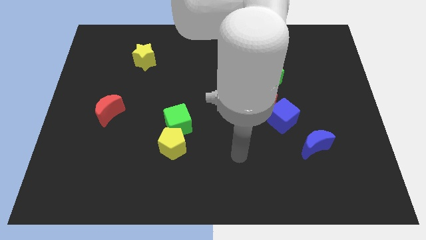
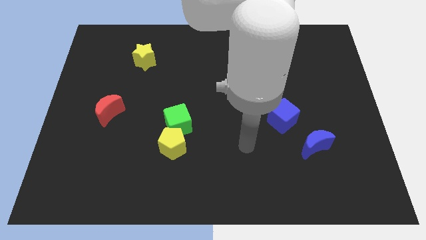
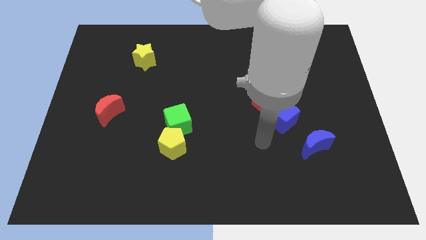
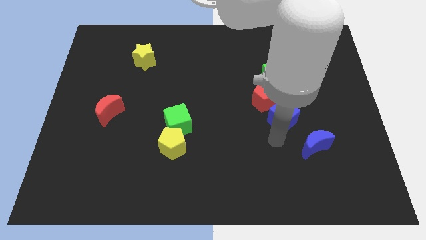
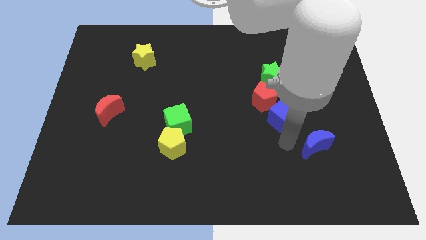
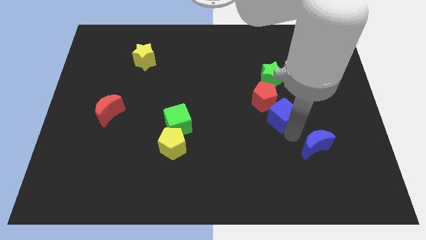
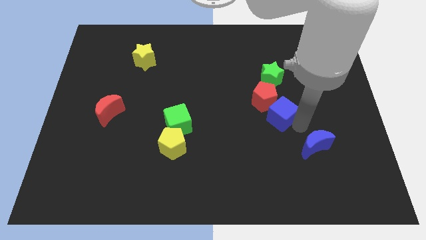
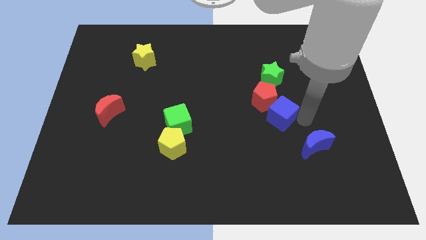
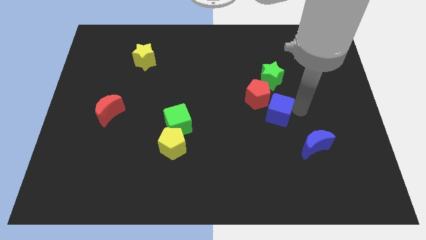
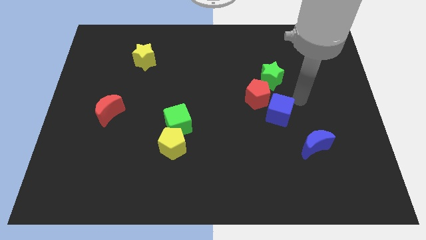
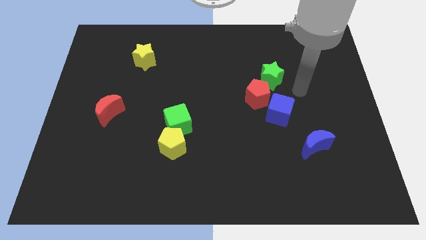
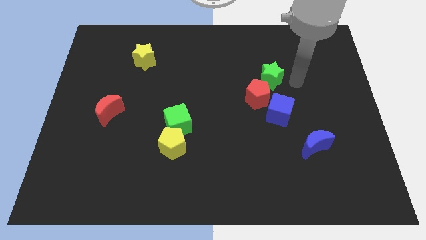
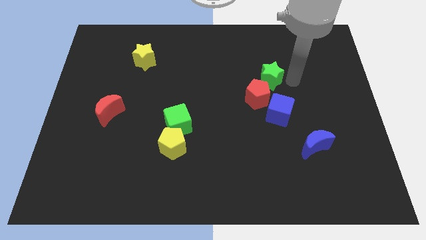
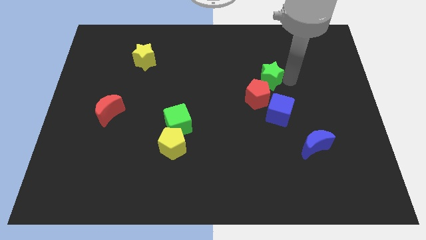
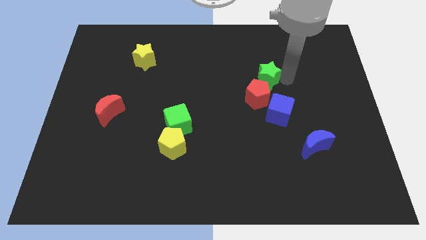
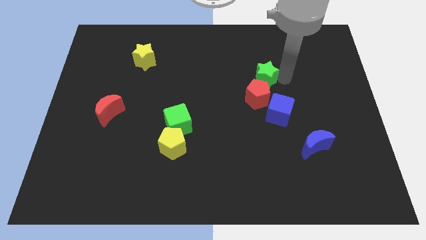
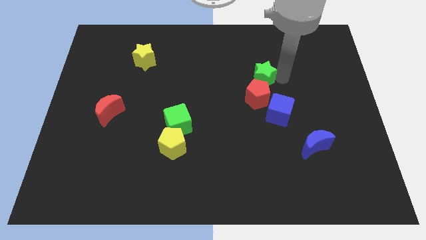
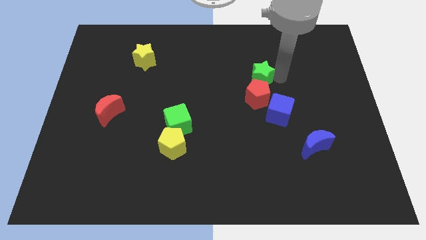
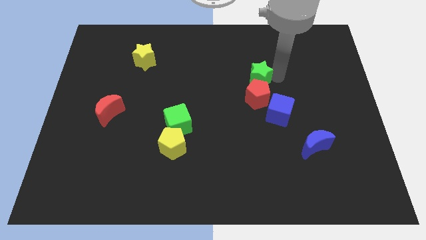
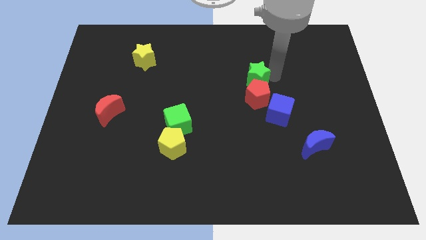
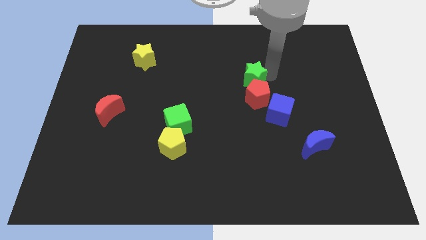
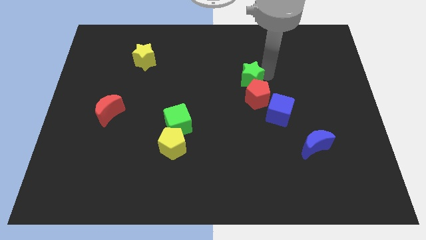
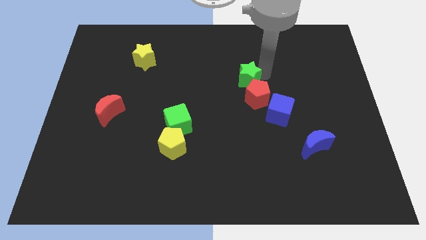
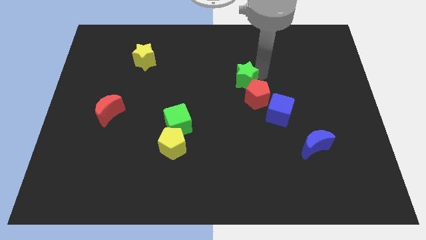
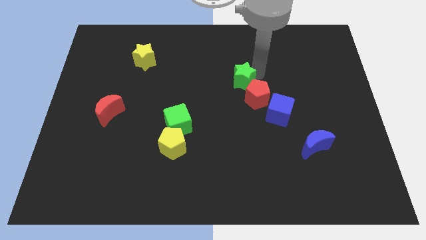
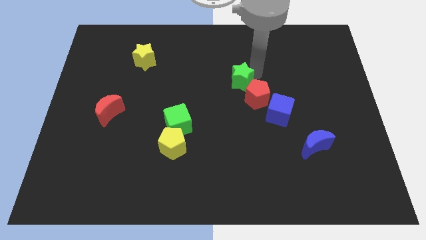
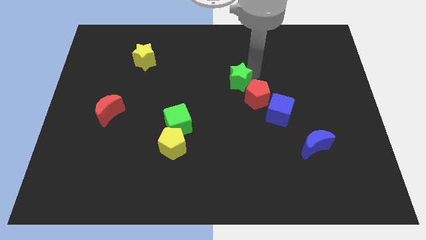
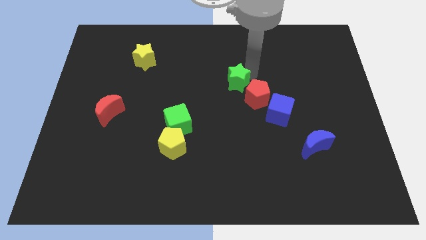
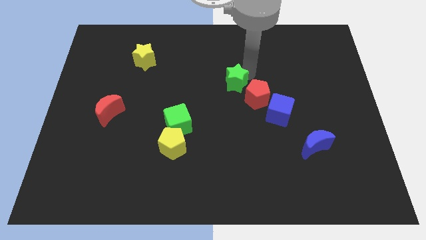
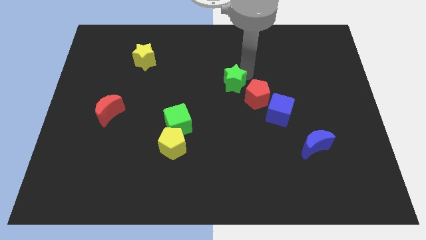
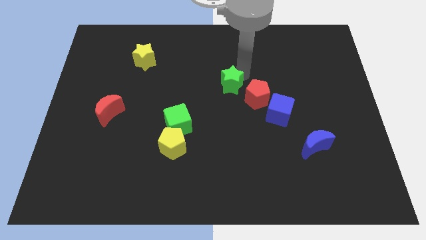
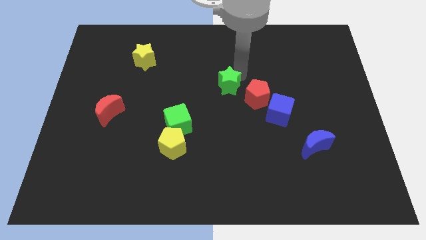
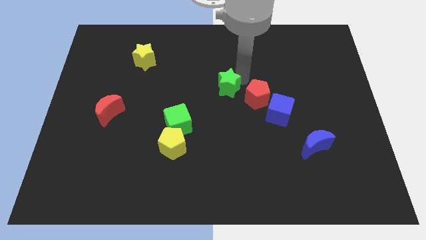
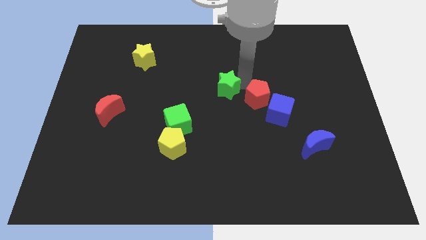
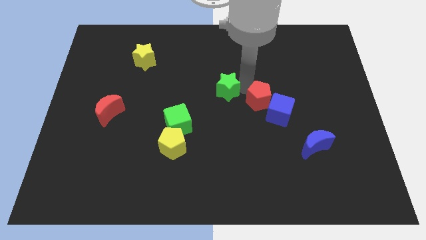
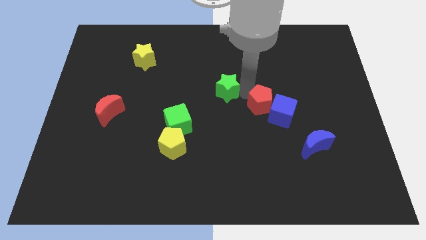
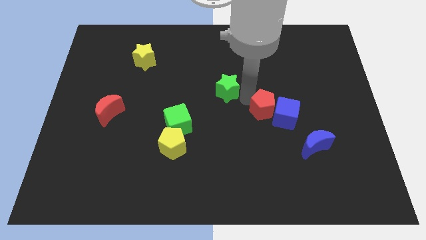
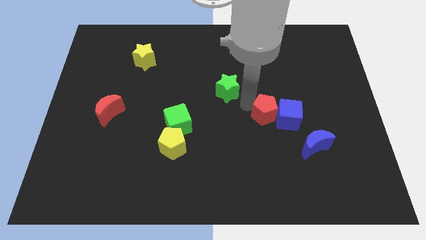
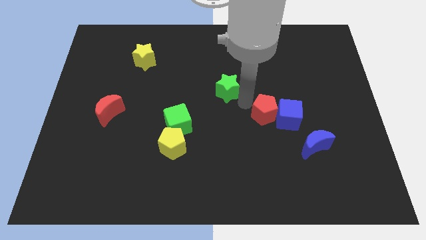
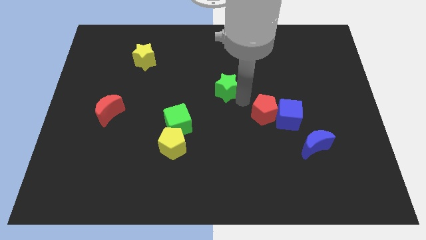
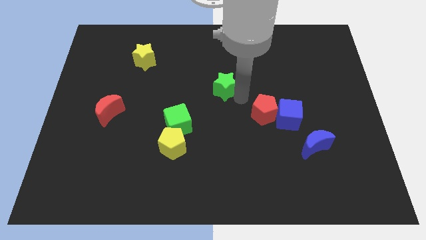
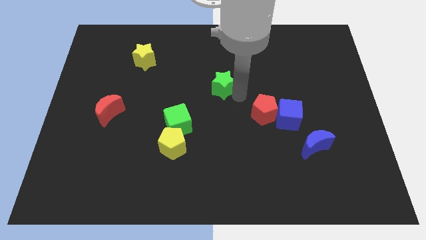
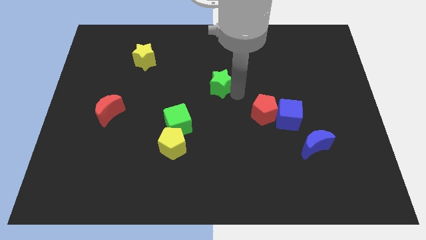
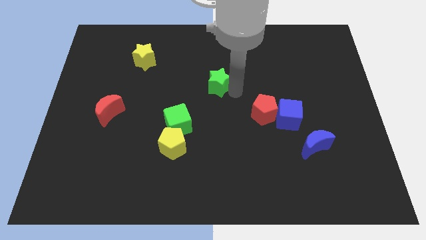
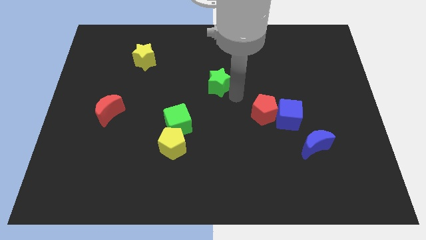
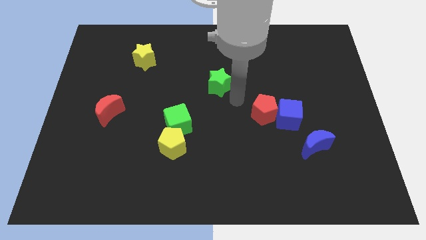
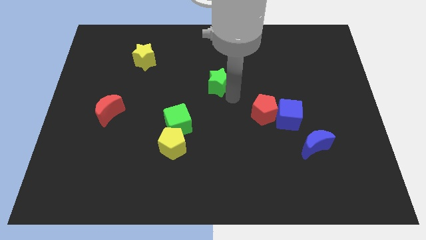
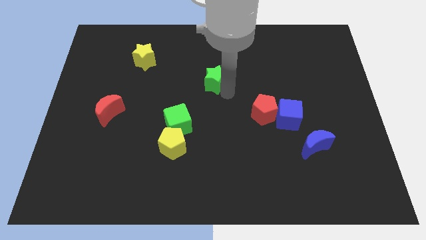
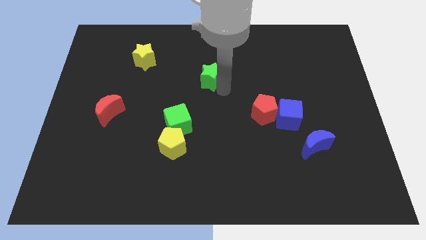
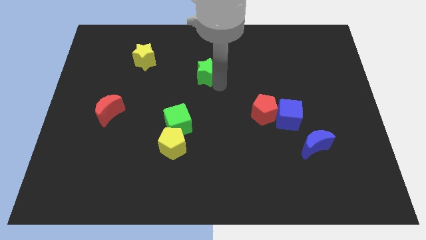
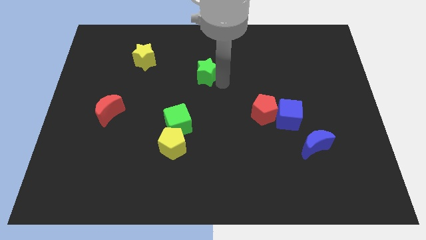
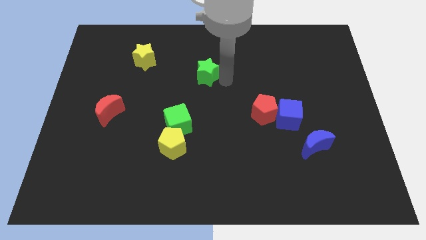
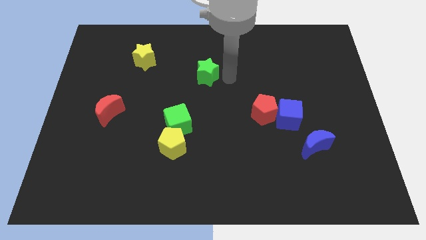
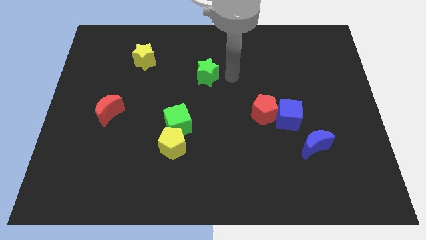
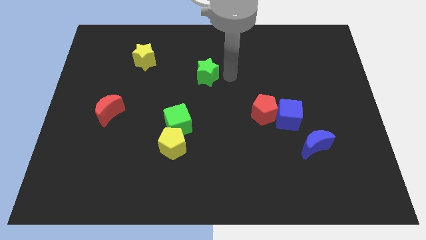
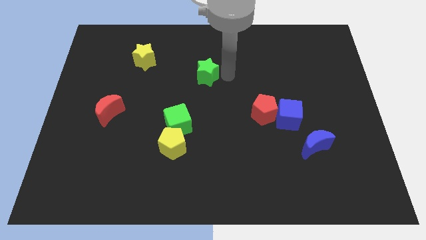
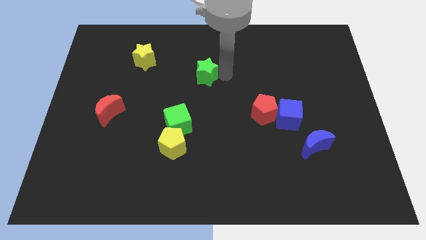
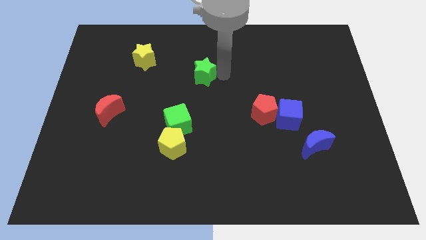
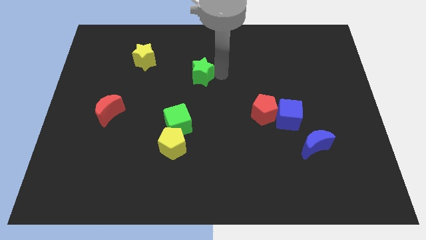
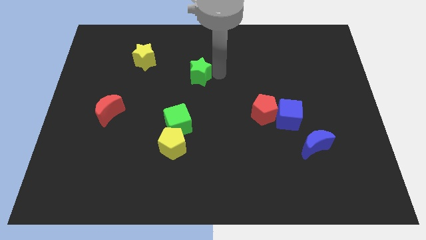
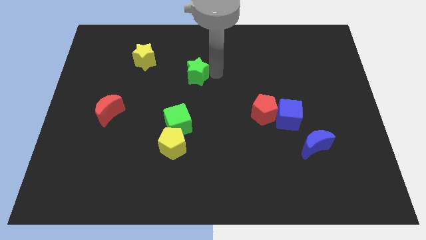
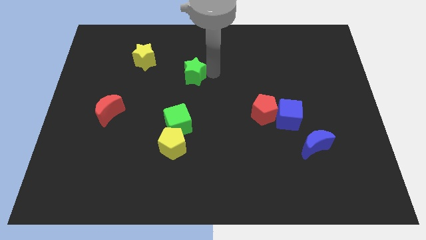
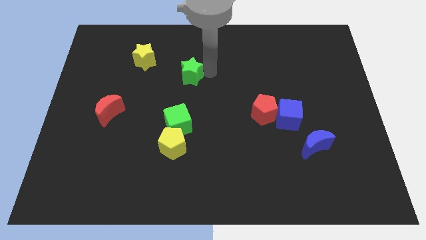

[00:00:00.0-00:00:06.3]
push the green star left

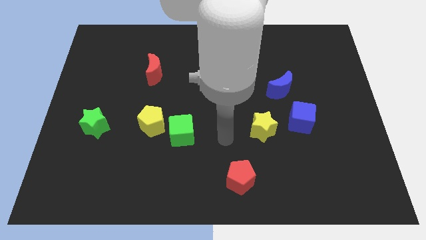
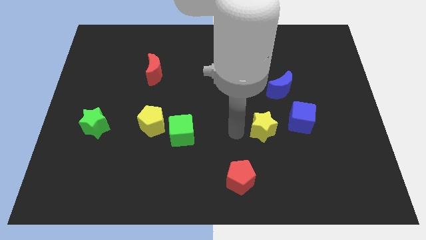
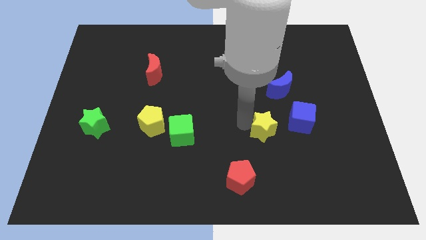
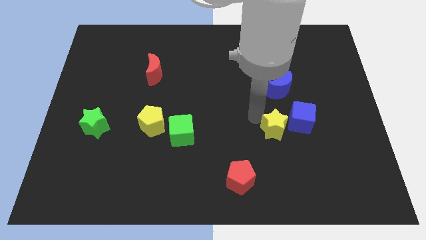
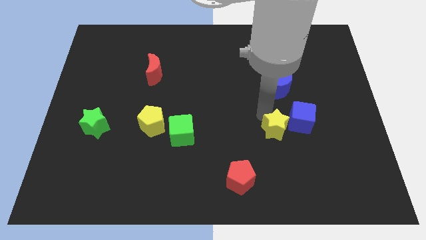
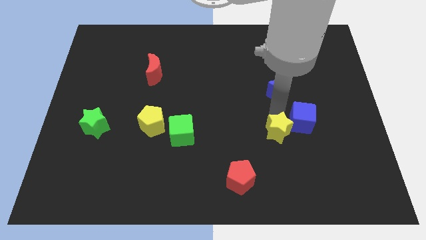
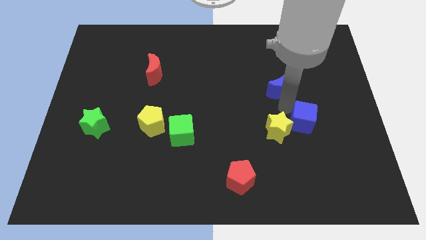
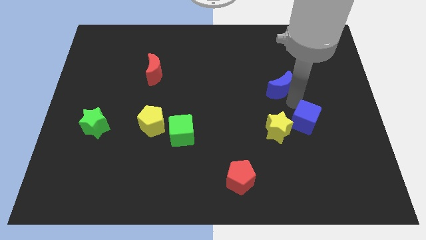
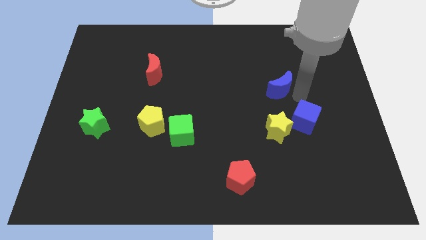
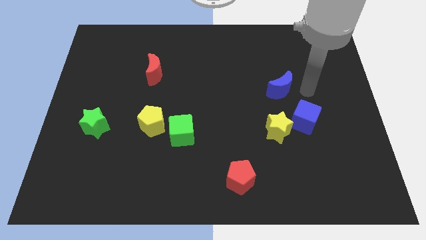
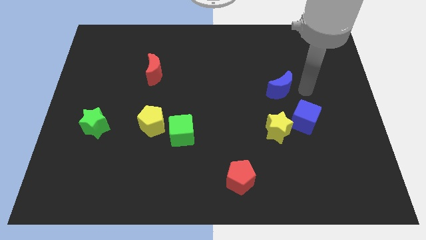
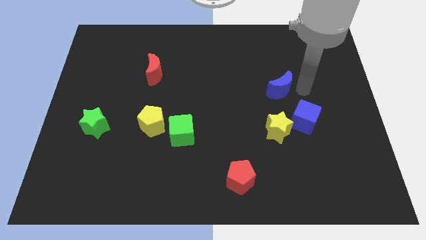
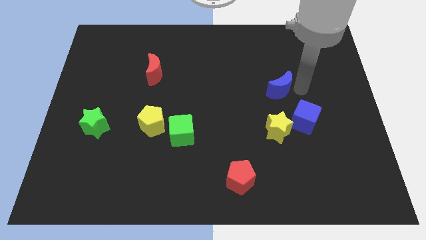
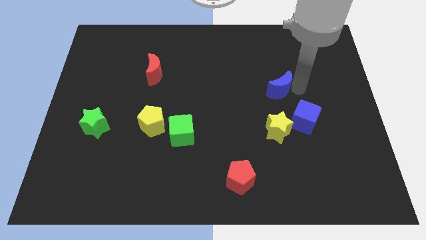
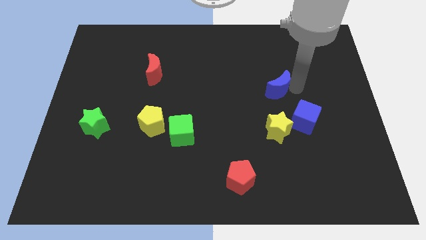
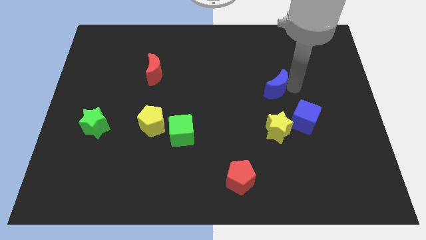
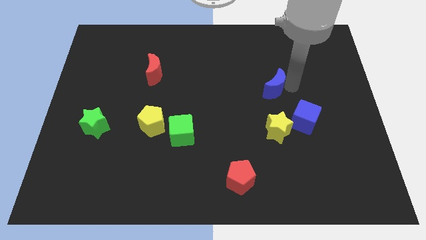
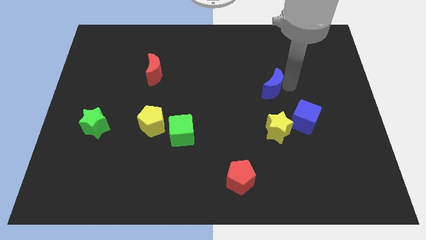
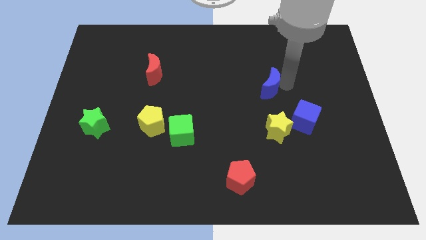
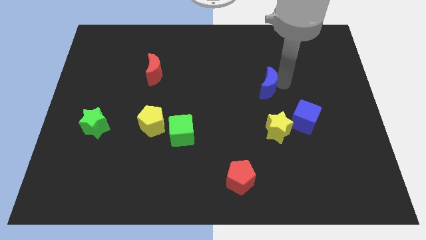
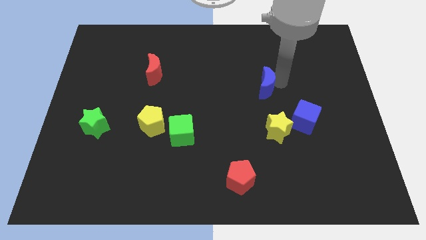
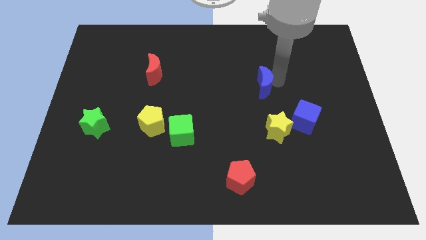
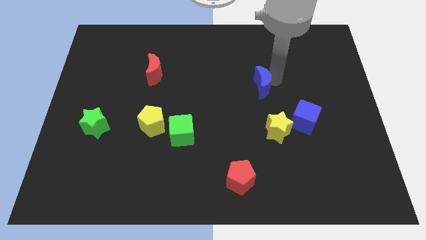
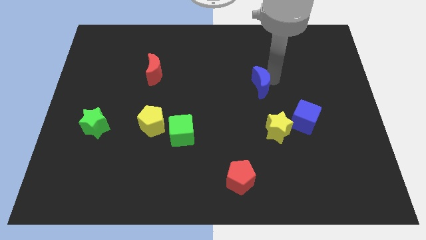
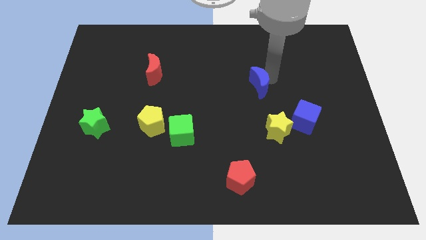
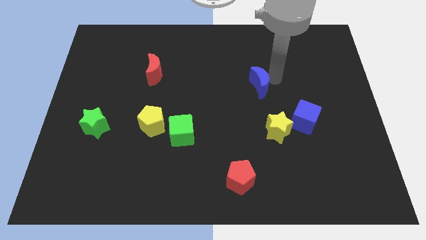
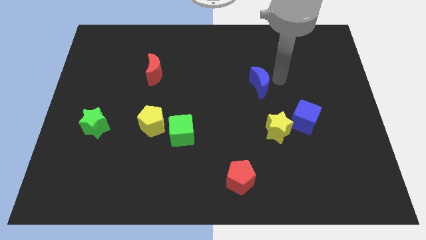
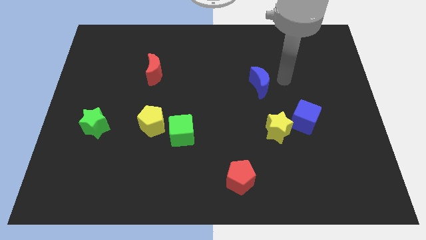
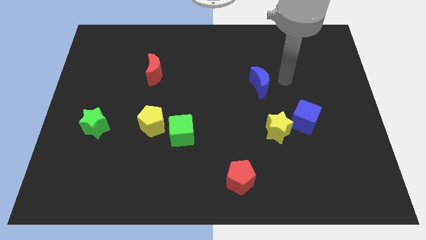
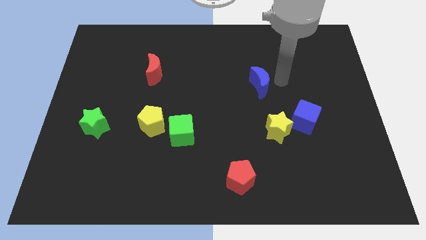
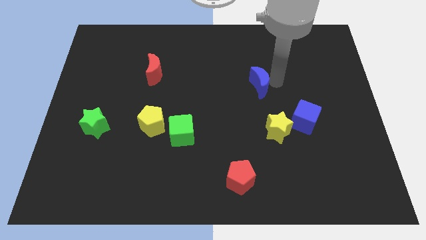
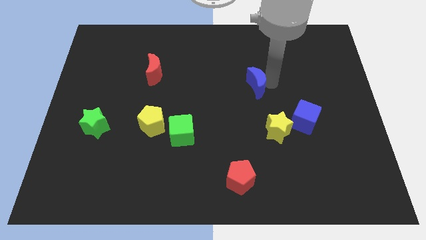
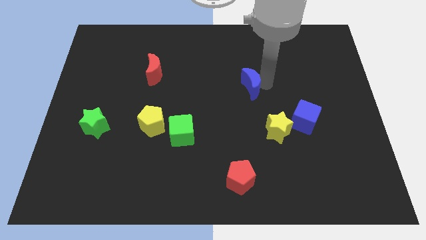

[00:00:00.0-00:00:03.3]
push the blue moon left a little
